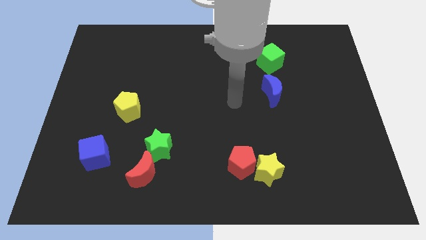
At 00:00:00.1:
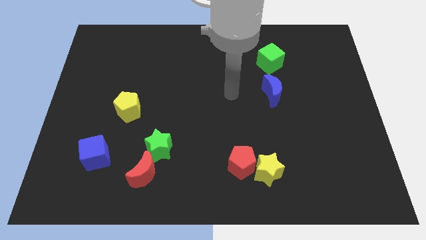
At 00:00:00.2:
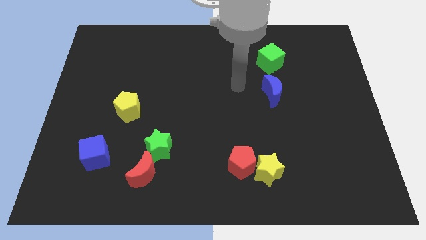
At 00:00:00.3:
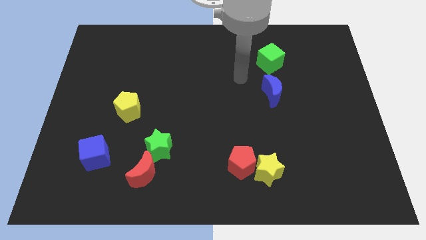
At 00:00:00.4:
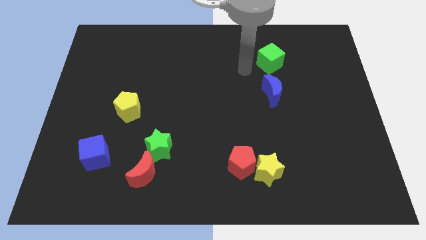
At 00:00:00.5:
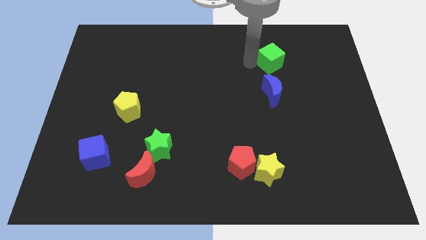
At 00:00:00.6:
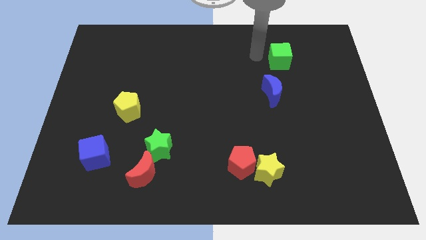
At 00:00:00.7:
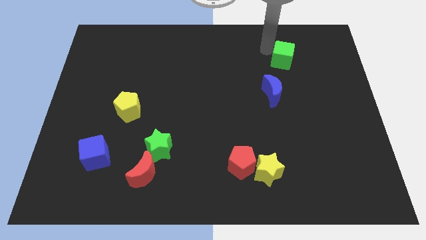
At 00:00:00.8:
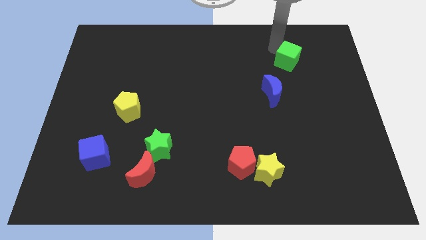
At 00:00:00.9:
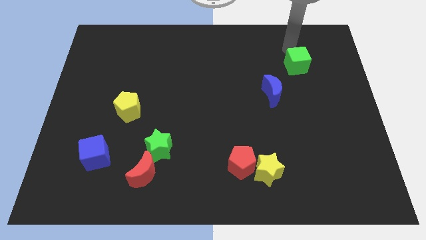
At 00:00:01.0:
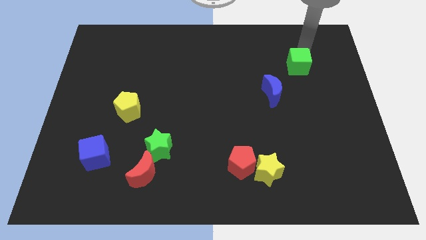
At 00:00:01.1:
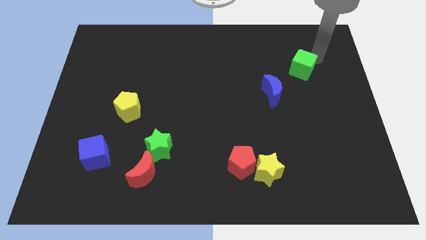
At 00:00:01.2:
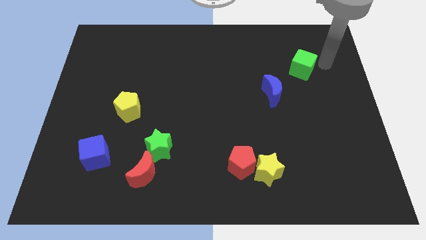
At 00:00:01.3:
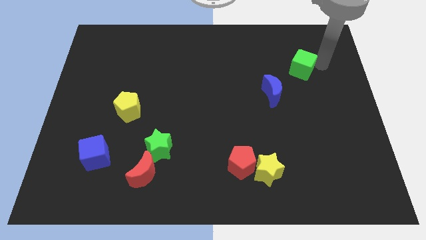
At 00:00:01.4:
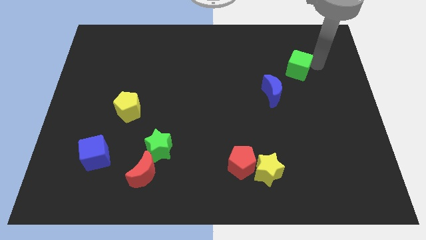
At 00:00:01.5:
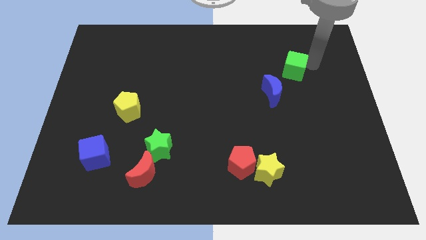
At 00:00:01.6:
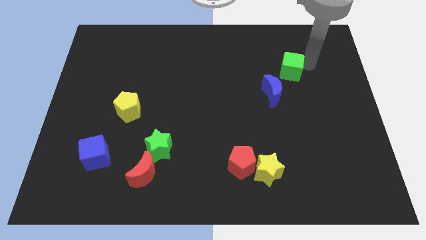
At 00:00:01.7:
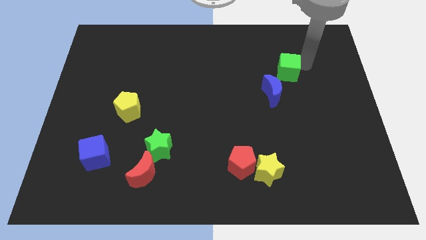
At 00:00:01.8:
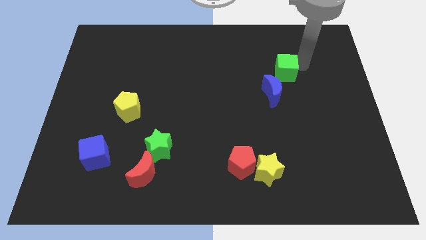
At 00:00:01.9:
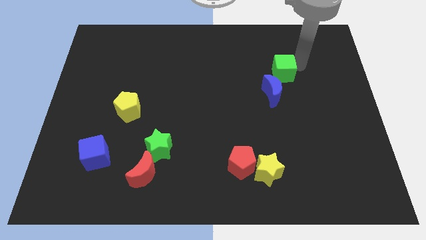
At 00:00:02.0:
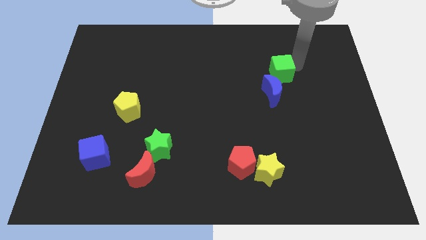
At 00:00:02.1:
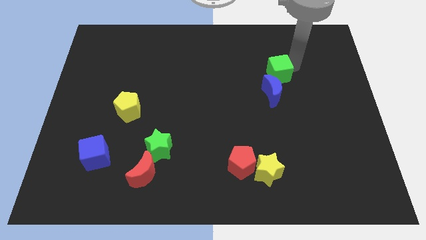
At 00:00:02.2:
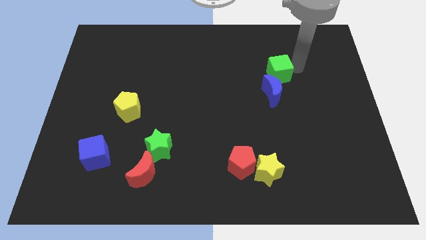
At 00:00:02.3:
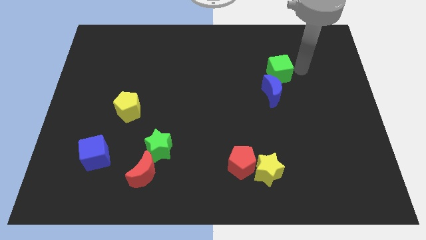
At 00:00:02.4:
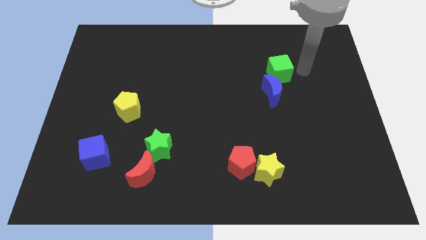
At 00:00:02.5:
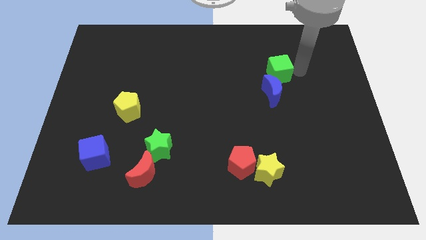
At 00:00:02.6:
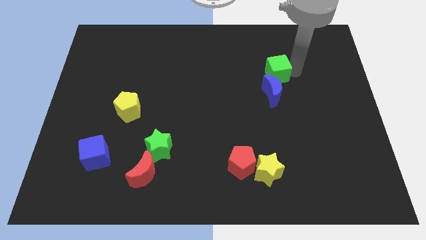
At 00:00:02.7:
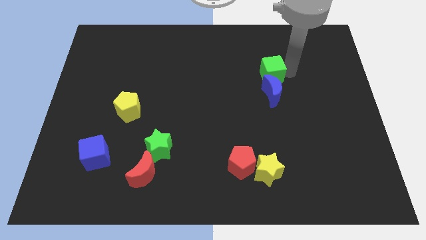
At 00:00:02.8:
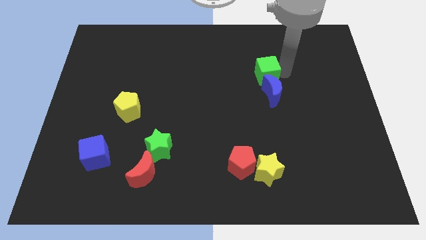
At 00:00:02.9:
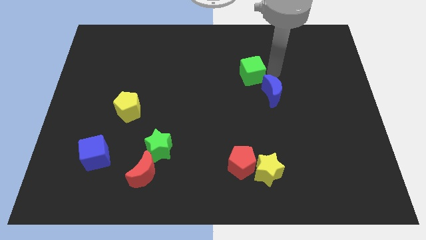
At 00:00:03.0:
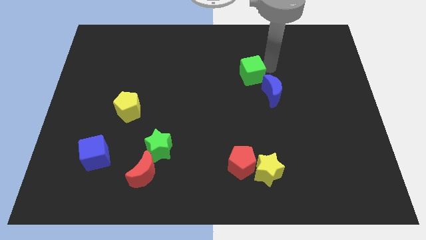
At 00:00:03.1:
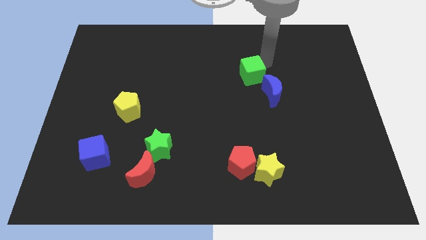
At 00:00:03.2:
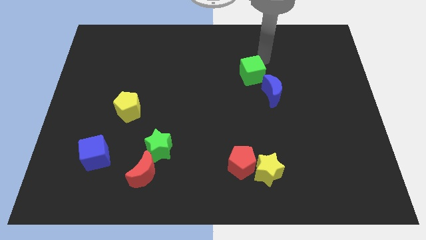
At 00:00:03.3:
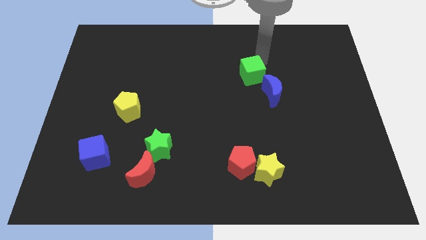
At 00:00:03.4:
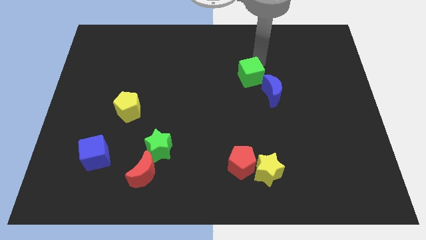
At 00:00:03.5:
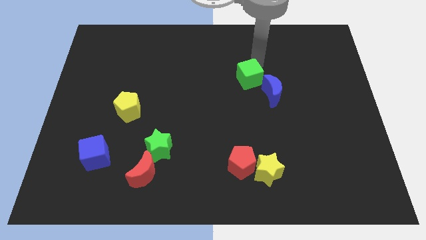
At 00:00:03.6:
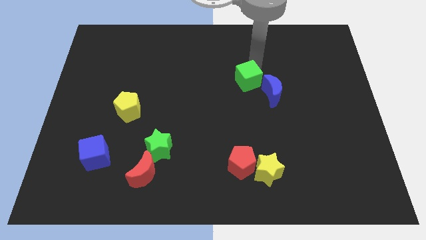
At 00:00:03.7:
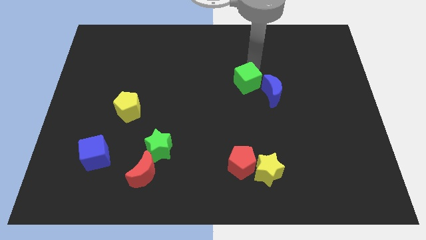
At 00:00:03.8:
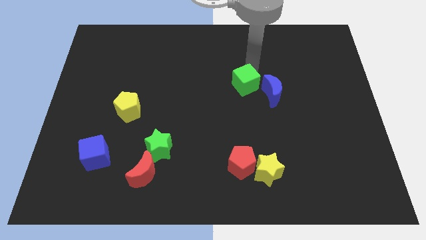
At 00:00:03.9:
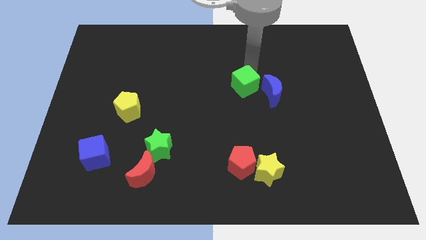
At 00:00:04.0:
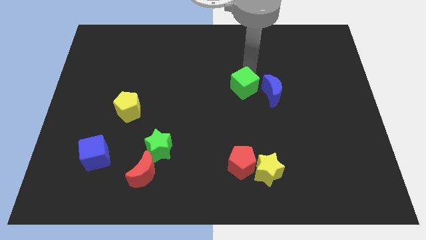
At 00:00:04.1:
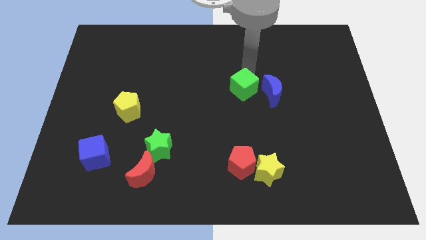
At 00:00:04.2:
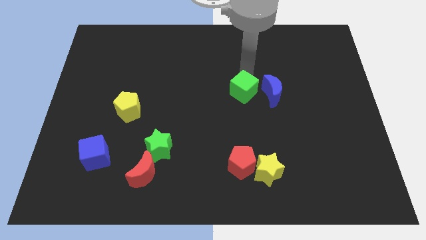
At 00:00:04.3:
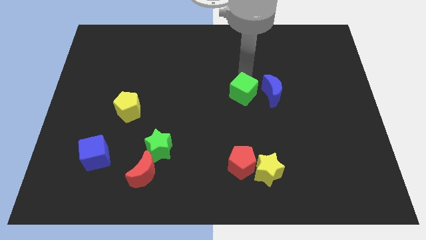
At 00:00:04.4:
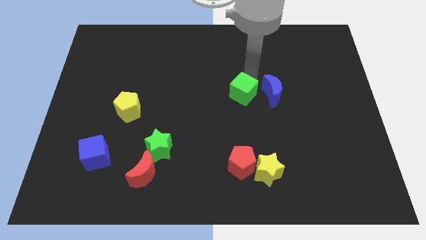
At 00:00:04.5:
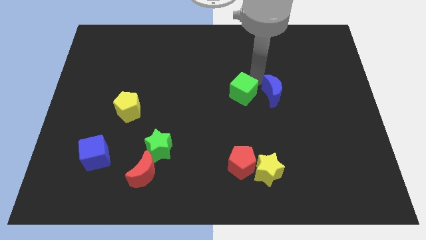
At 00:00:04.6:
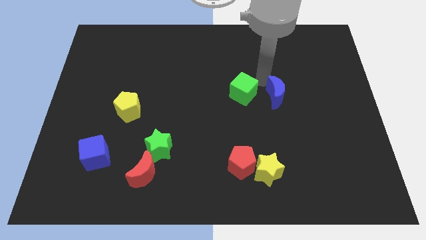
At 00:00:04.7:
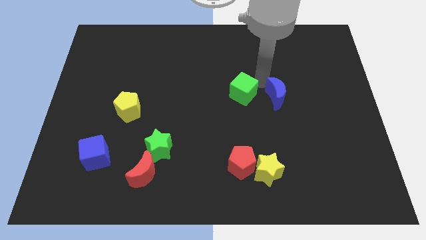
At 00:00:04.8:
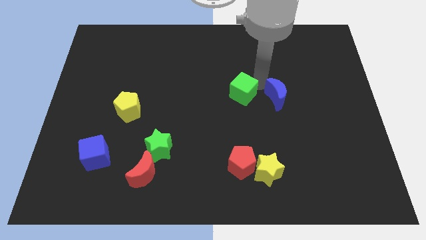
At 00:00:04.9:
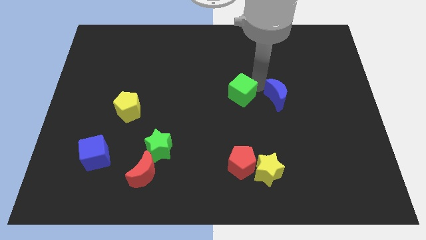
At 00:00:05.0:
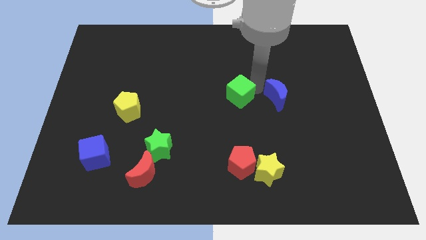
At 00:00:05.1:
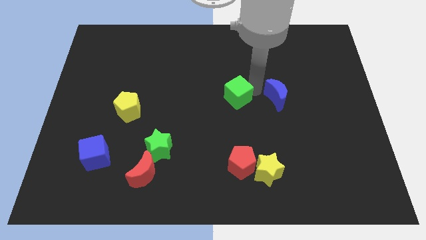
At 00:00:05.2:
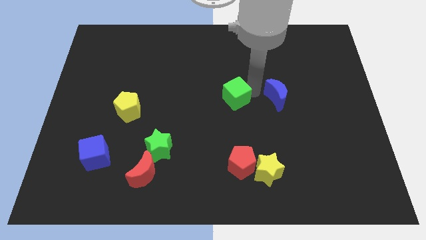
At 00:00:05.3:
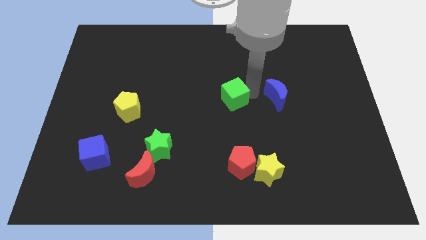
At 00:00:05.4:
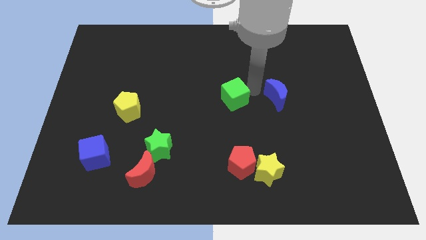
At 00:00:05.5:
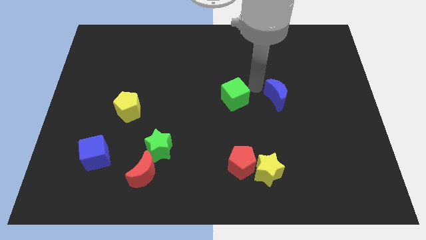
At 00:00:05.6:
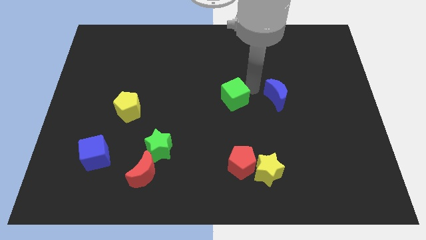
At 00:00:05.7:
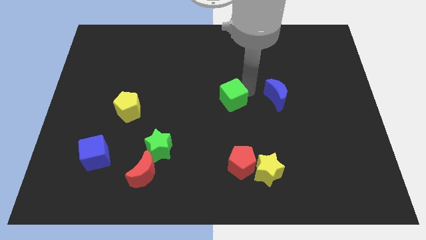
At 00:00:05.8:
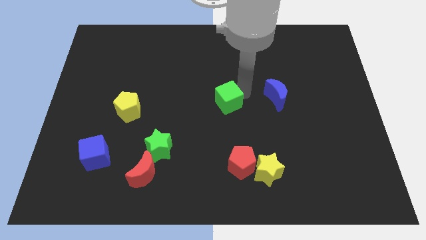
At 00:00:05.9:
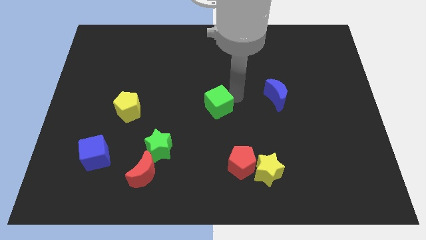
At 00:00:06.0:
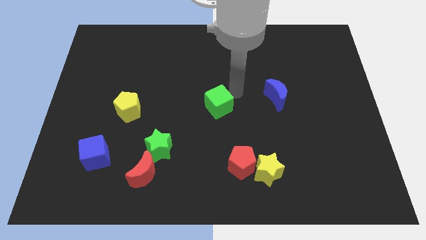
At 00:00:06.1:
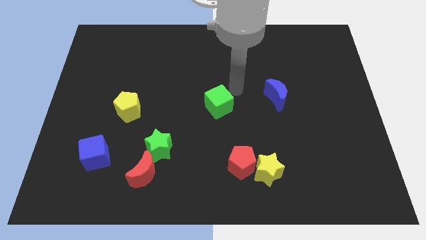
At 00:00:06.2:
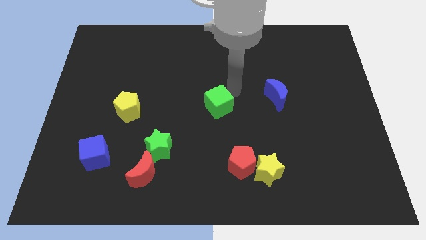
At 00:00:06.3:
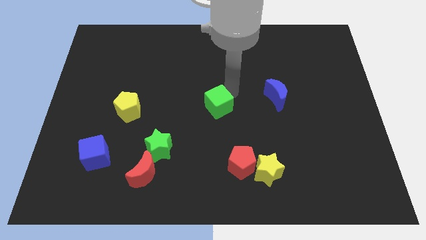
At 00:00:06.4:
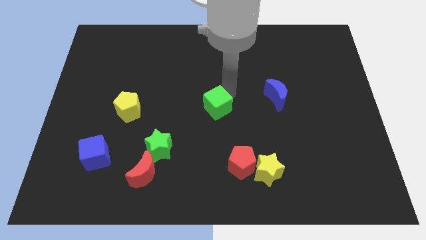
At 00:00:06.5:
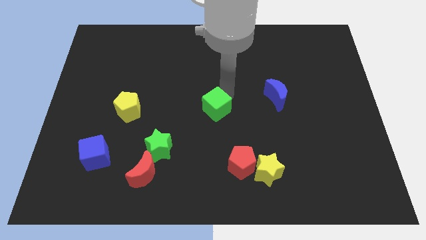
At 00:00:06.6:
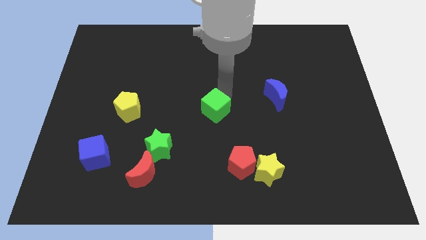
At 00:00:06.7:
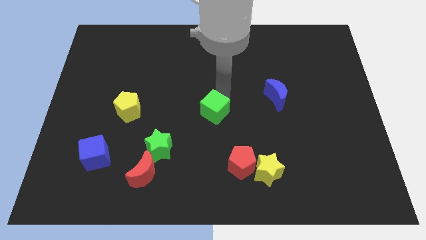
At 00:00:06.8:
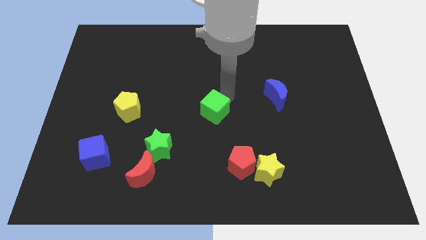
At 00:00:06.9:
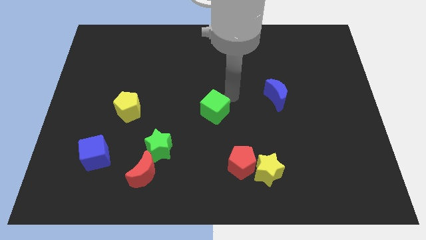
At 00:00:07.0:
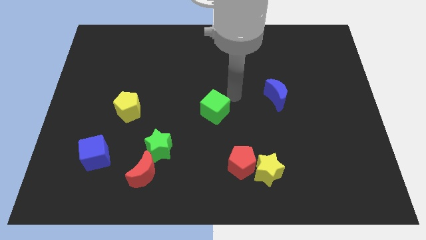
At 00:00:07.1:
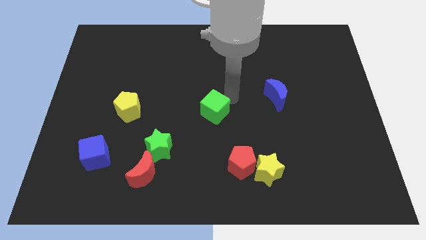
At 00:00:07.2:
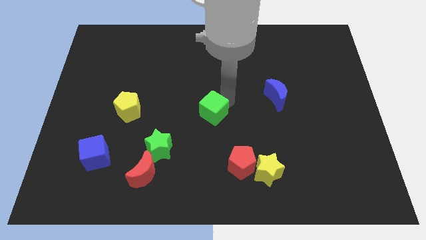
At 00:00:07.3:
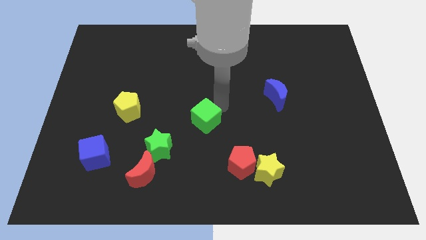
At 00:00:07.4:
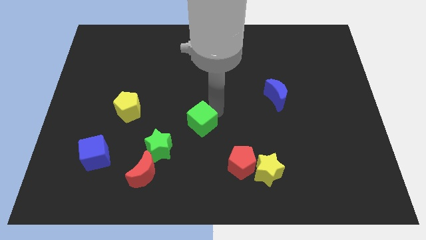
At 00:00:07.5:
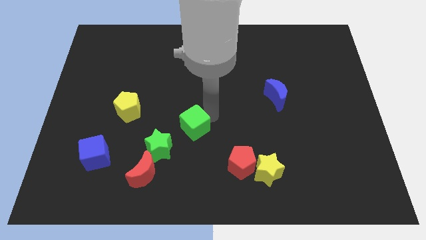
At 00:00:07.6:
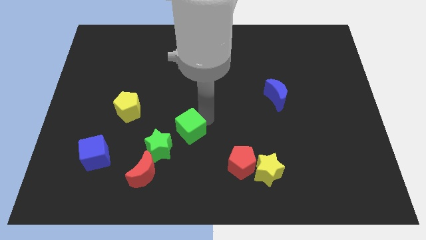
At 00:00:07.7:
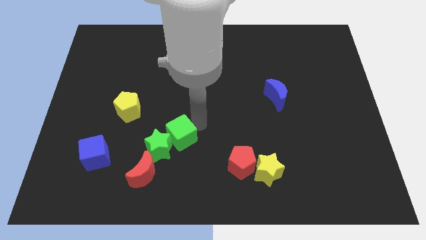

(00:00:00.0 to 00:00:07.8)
push the green cube next to the green star
